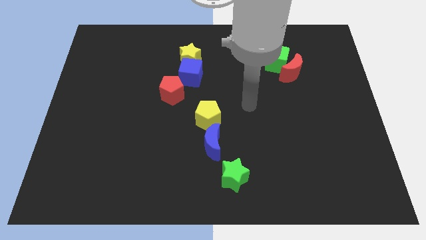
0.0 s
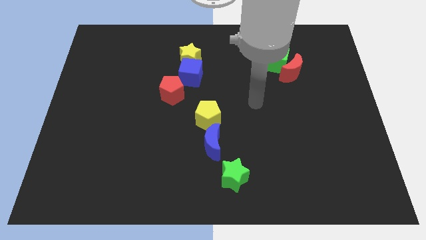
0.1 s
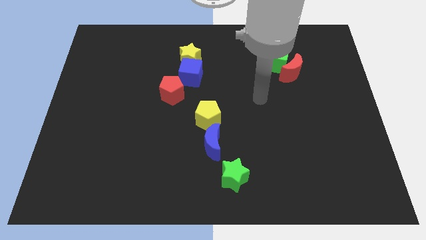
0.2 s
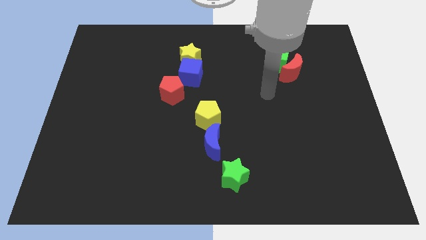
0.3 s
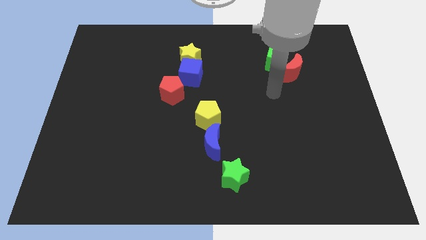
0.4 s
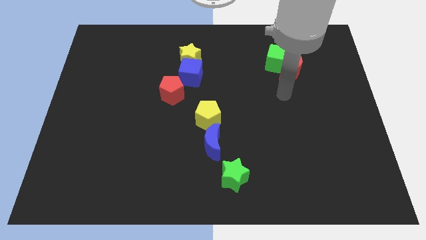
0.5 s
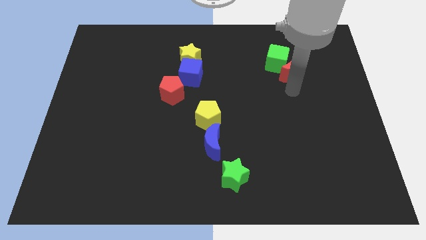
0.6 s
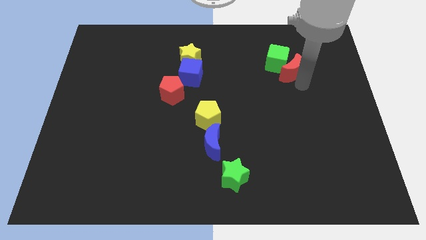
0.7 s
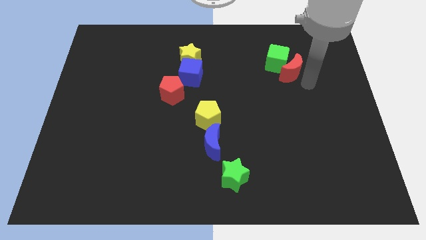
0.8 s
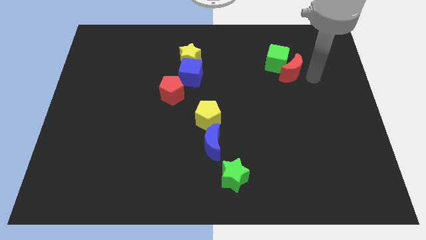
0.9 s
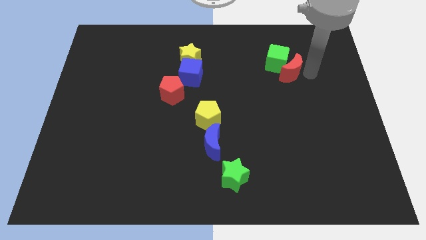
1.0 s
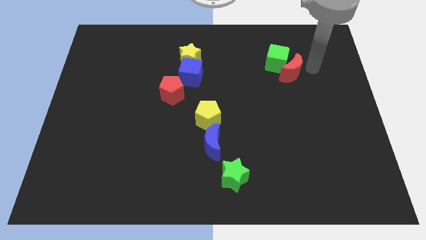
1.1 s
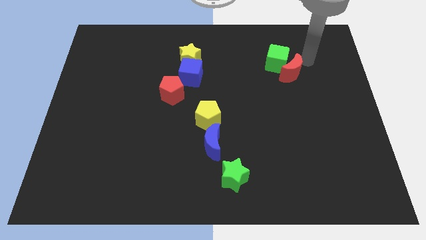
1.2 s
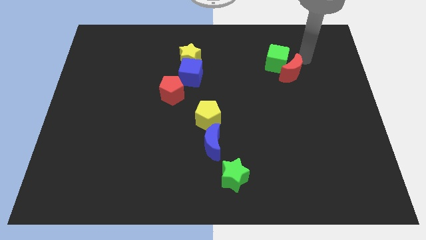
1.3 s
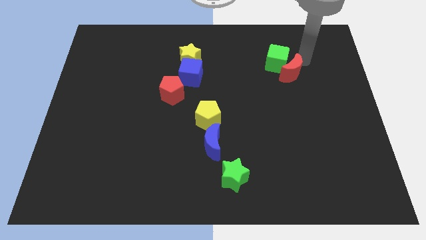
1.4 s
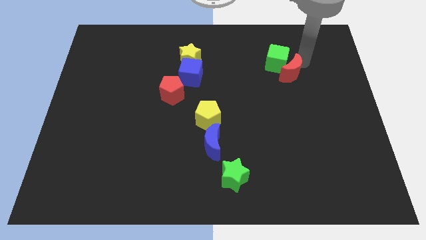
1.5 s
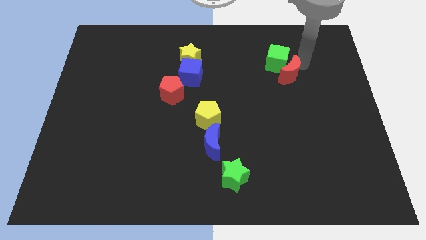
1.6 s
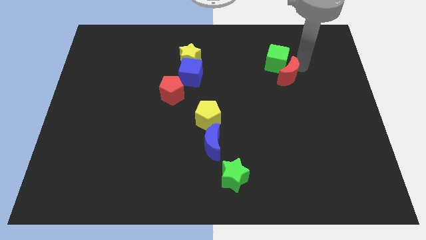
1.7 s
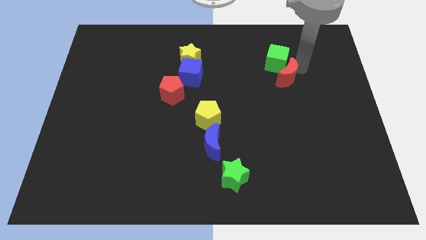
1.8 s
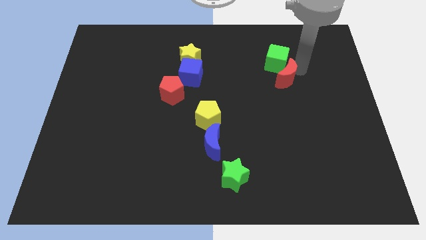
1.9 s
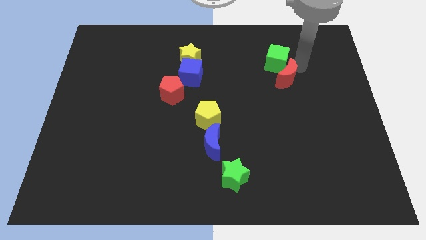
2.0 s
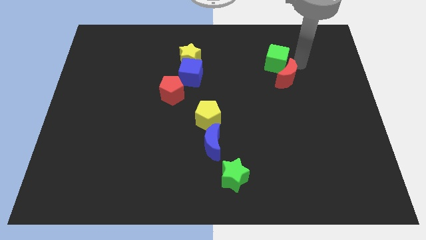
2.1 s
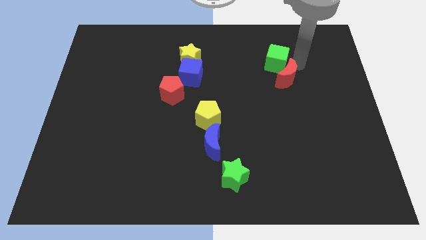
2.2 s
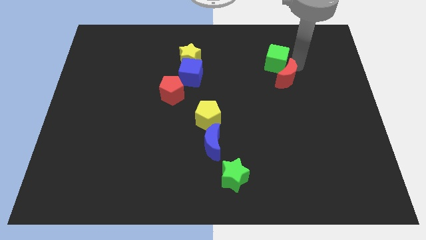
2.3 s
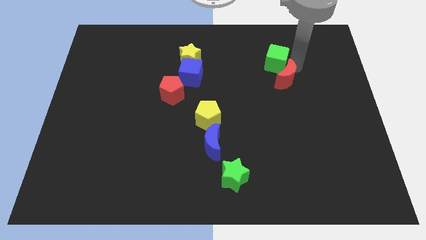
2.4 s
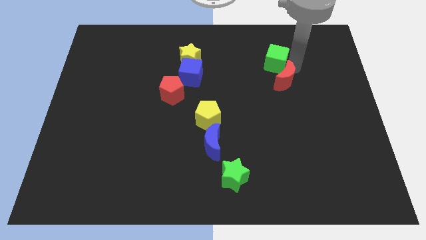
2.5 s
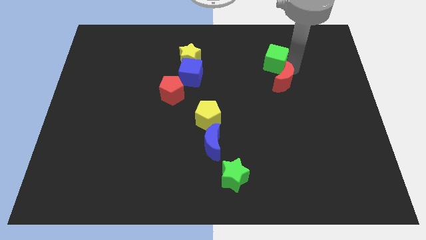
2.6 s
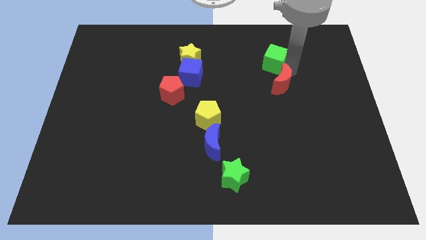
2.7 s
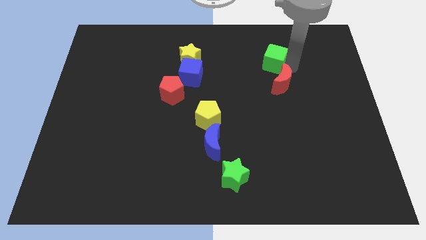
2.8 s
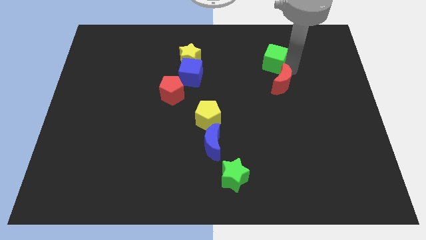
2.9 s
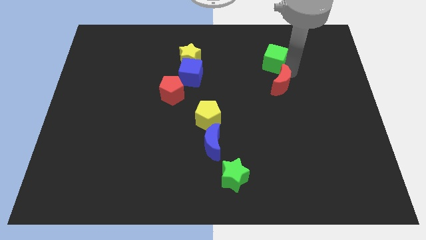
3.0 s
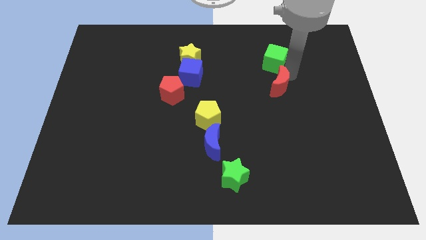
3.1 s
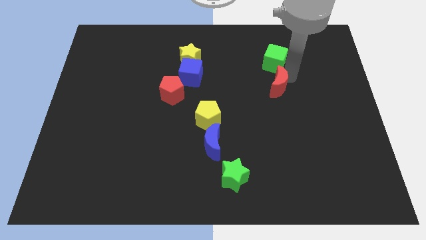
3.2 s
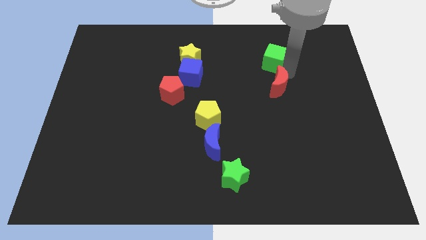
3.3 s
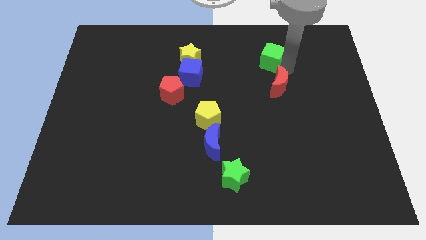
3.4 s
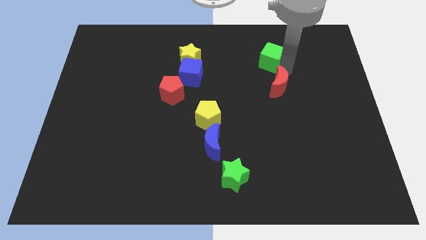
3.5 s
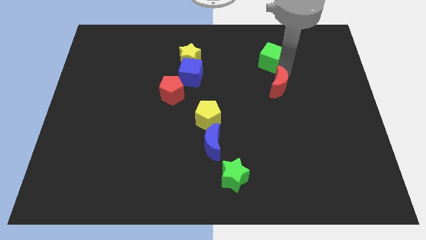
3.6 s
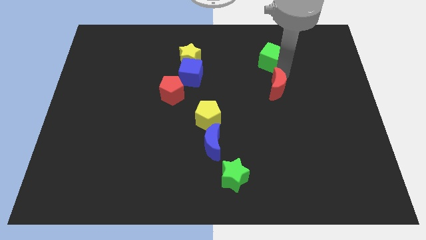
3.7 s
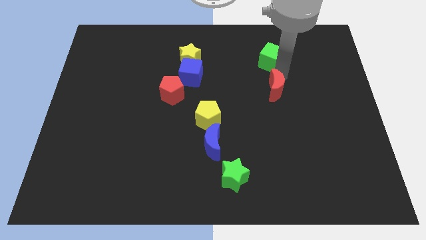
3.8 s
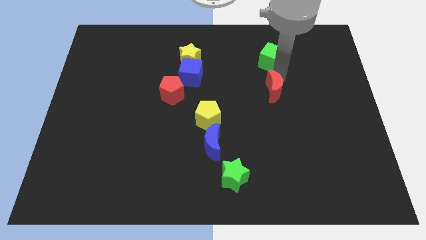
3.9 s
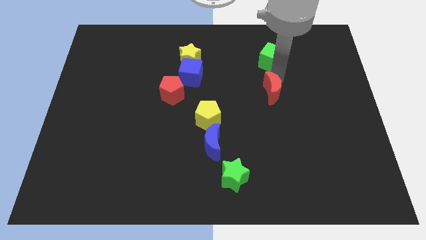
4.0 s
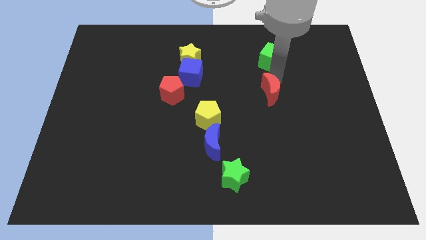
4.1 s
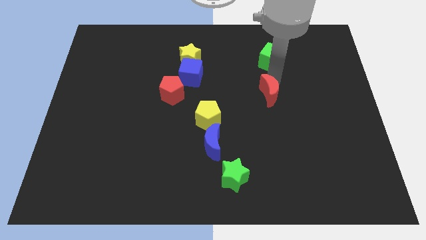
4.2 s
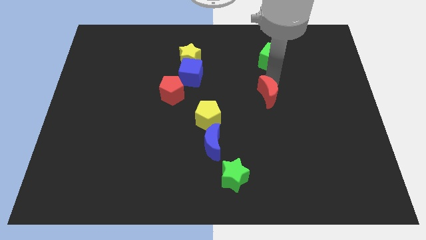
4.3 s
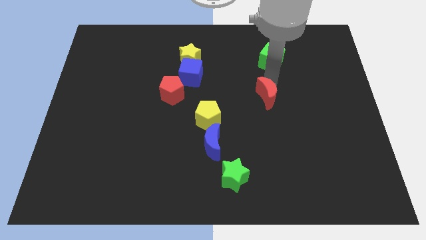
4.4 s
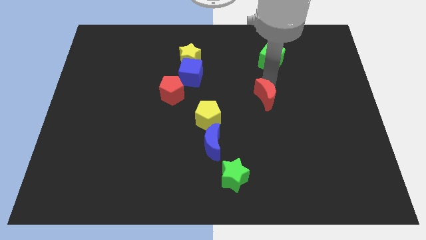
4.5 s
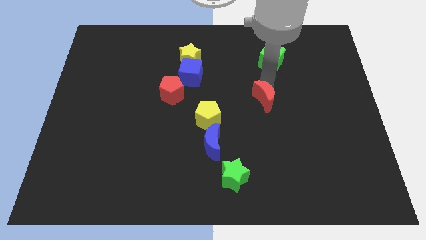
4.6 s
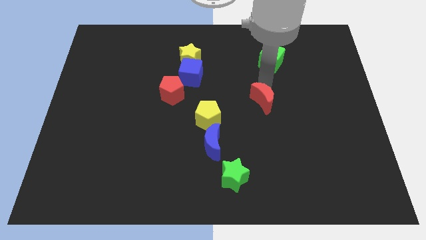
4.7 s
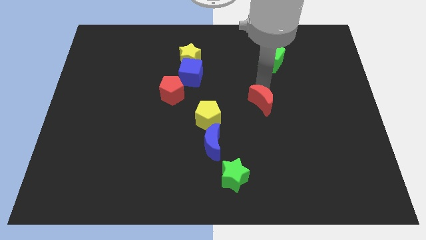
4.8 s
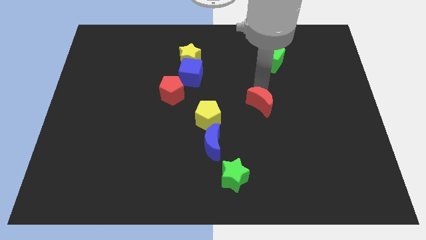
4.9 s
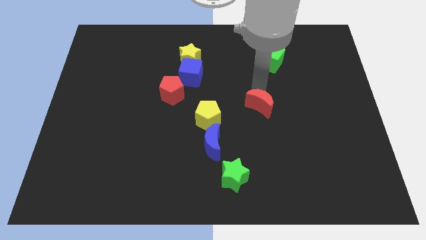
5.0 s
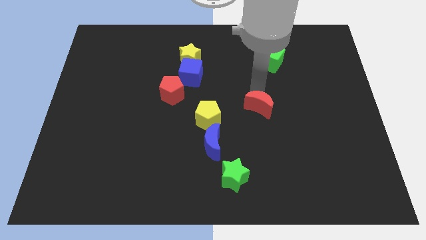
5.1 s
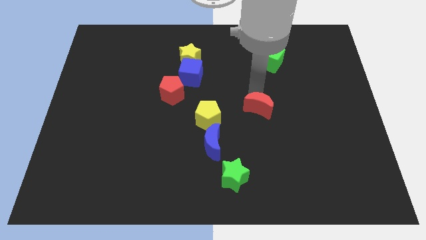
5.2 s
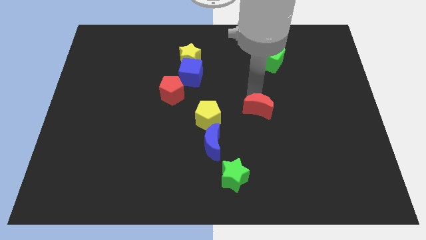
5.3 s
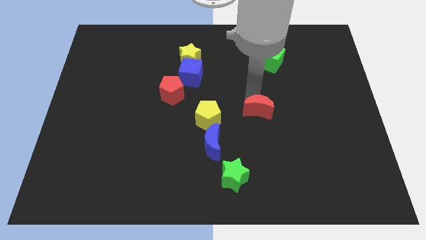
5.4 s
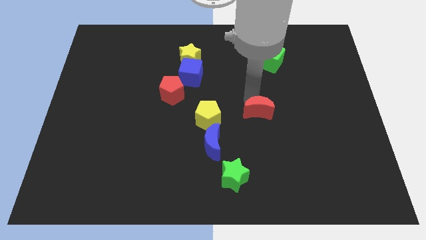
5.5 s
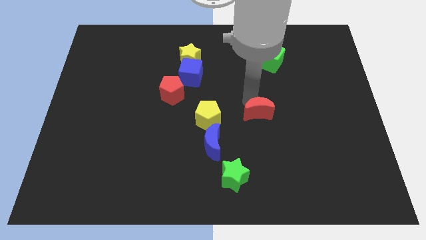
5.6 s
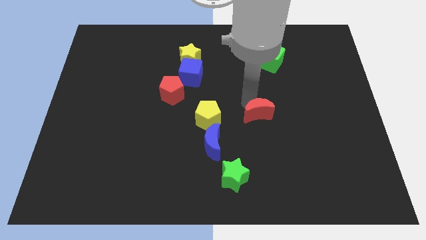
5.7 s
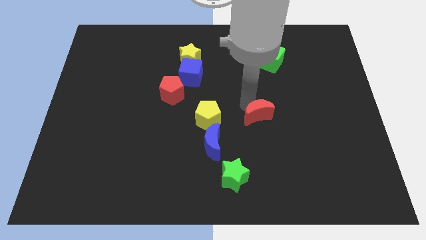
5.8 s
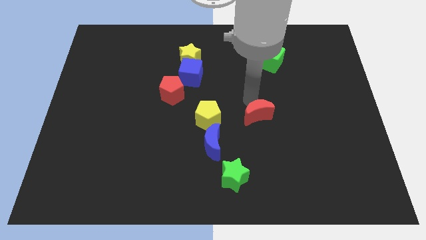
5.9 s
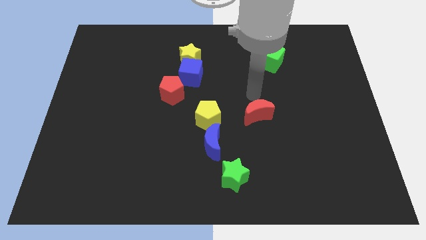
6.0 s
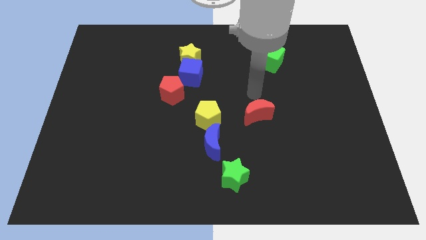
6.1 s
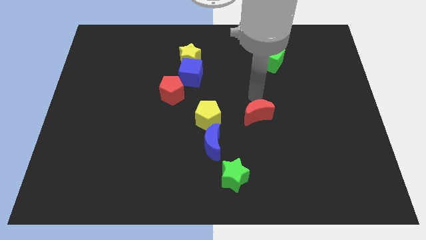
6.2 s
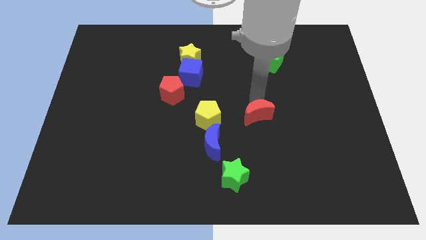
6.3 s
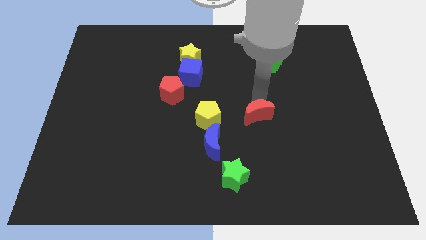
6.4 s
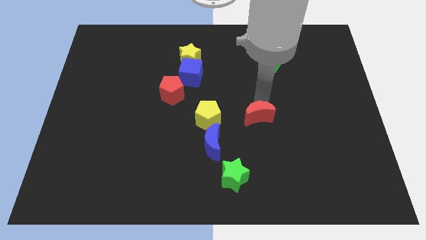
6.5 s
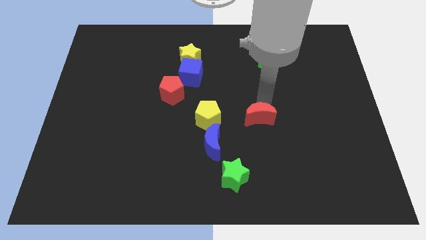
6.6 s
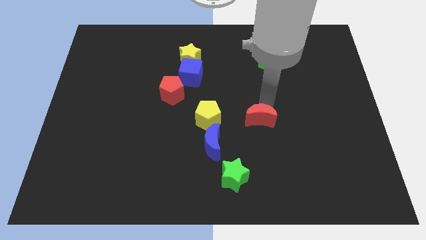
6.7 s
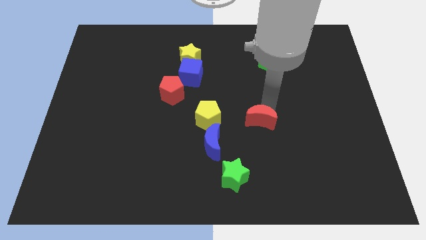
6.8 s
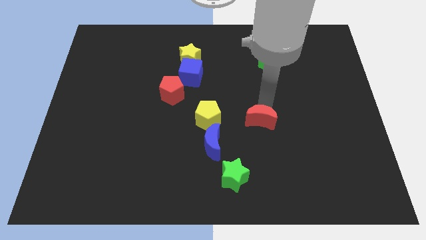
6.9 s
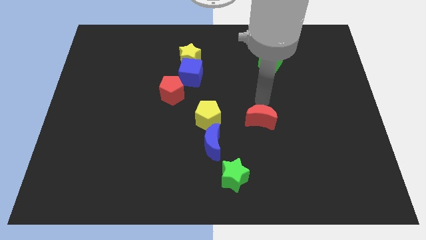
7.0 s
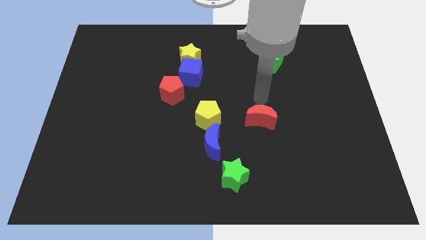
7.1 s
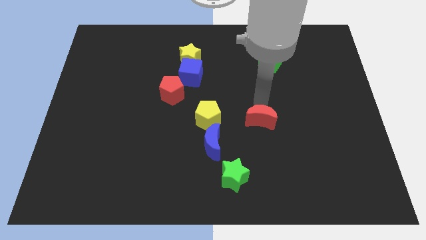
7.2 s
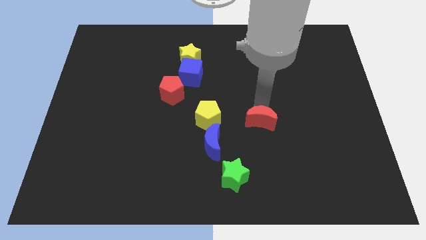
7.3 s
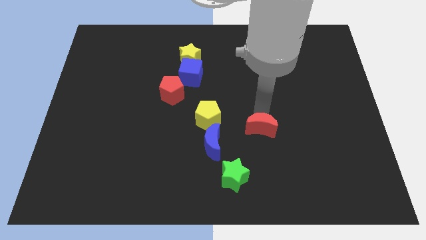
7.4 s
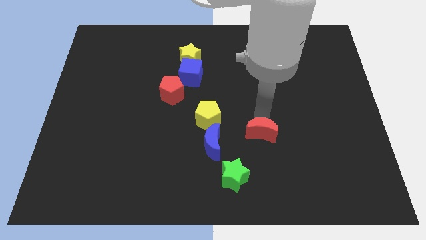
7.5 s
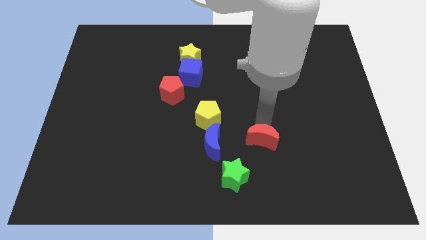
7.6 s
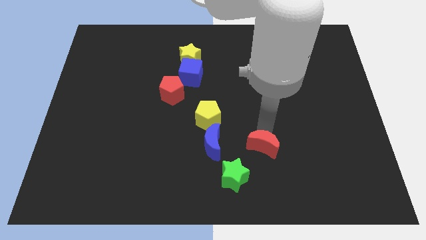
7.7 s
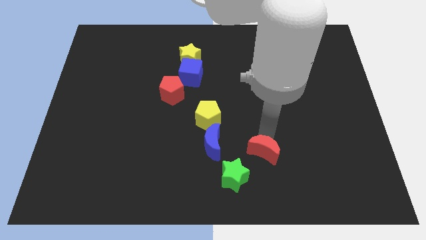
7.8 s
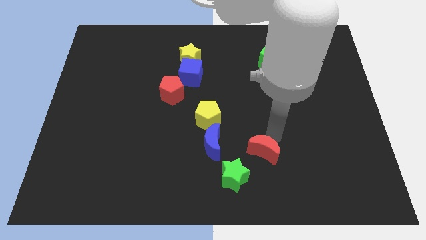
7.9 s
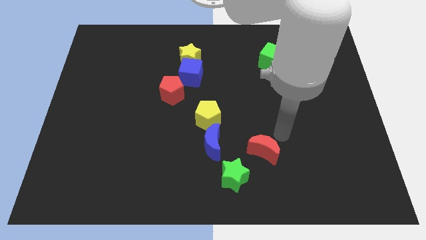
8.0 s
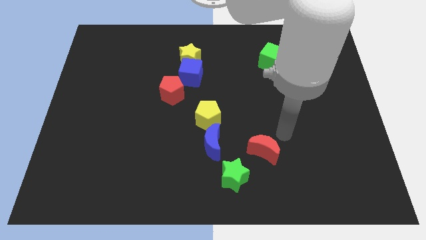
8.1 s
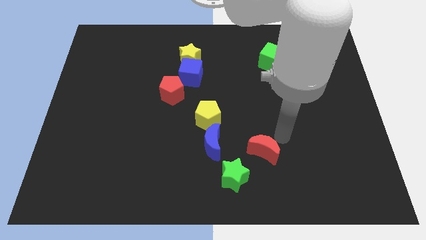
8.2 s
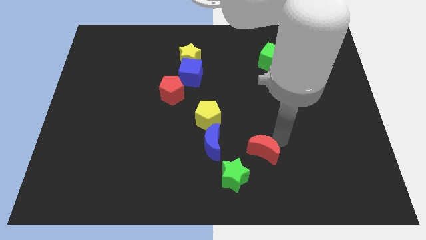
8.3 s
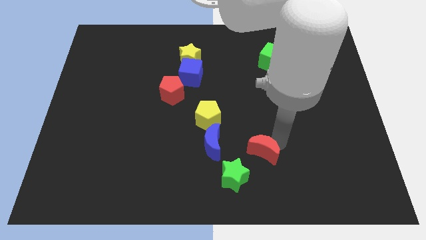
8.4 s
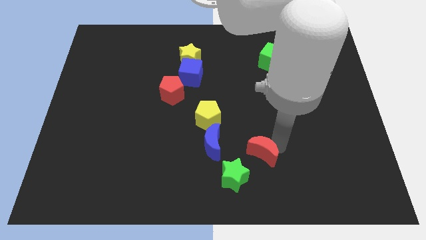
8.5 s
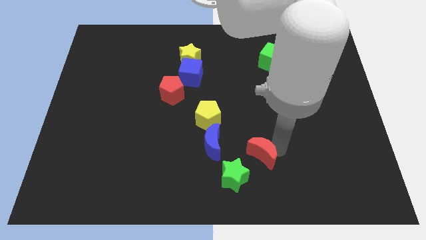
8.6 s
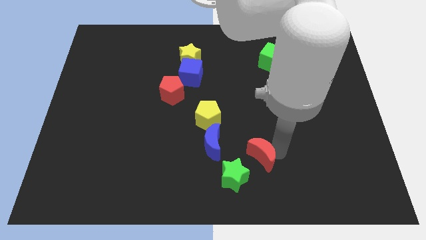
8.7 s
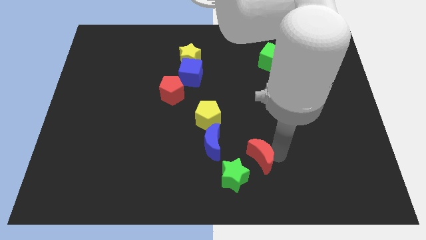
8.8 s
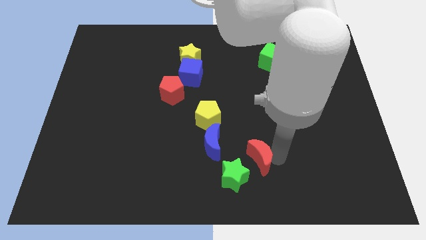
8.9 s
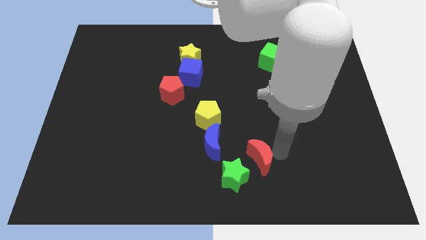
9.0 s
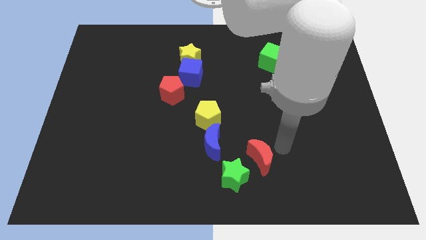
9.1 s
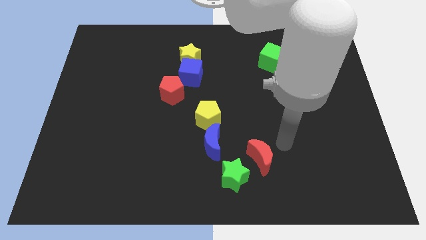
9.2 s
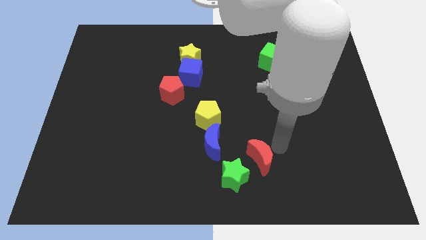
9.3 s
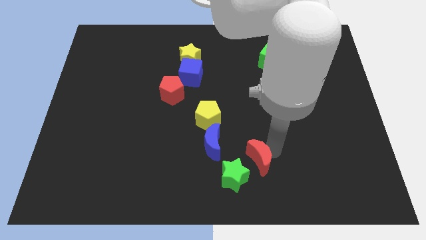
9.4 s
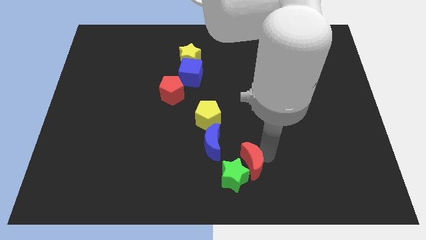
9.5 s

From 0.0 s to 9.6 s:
put the red moon to the green star
